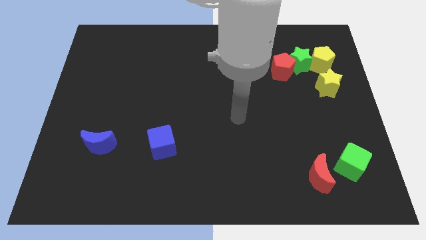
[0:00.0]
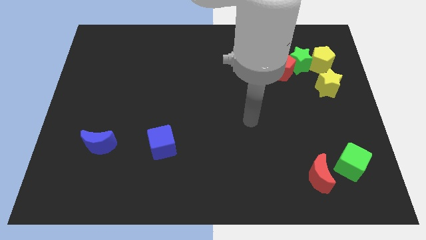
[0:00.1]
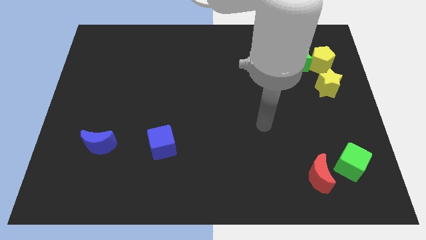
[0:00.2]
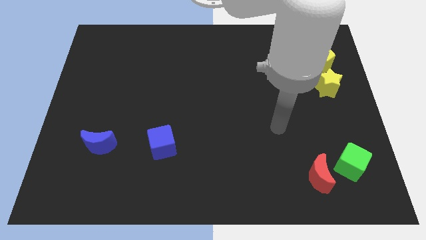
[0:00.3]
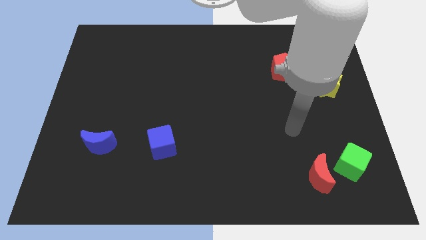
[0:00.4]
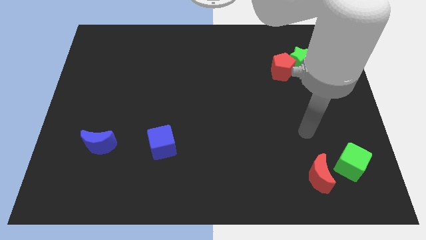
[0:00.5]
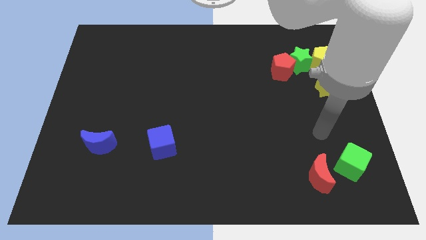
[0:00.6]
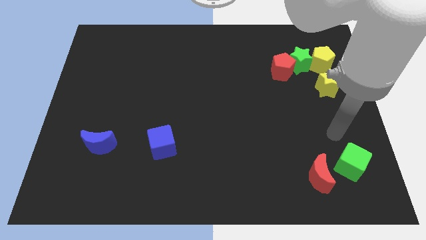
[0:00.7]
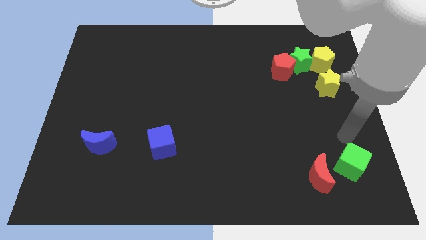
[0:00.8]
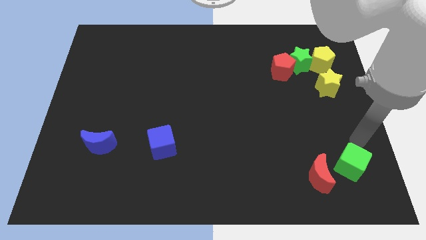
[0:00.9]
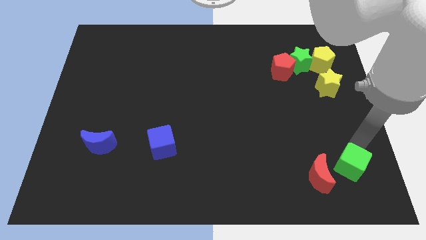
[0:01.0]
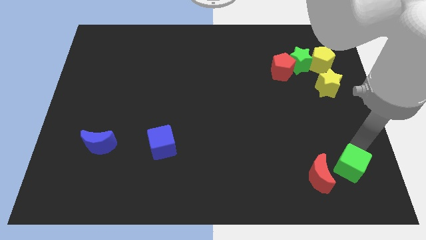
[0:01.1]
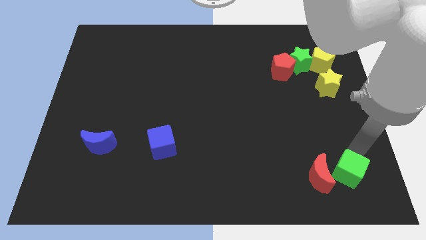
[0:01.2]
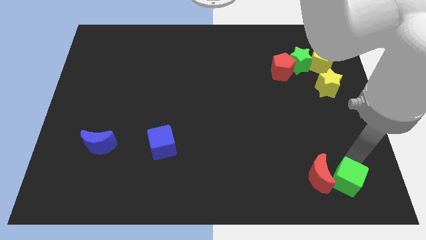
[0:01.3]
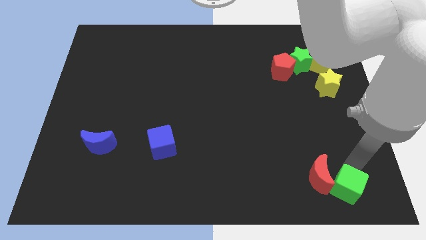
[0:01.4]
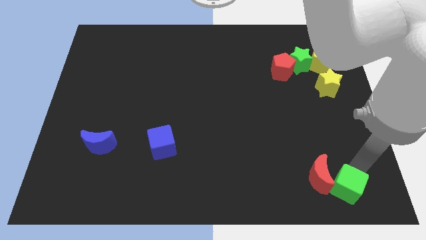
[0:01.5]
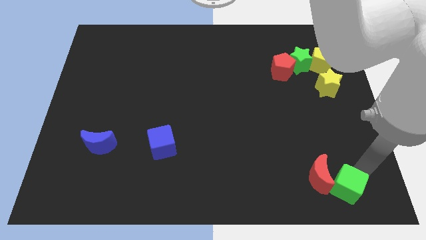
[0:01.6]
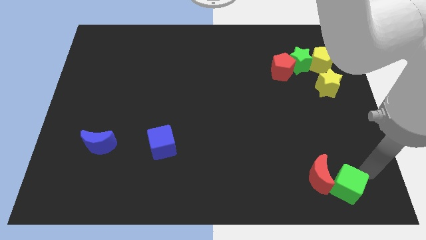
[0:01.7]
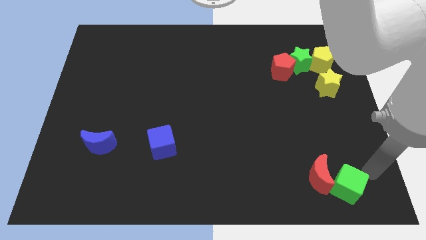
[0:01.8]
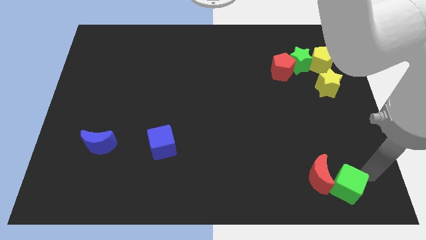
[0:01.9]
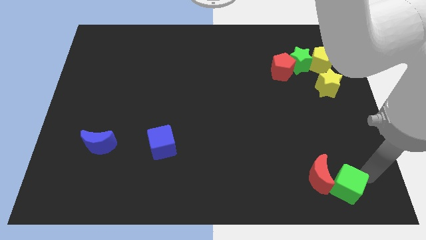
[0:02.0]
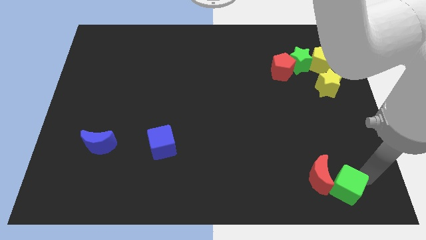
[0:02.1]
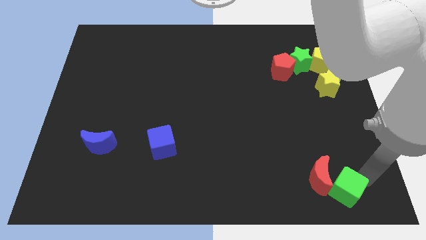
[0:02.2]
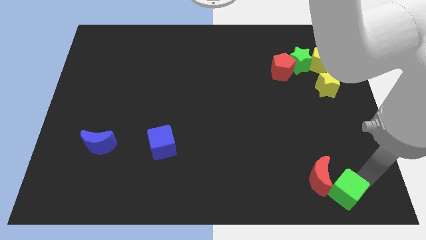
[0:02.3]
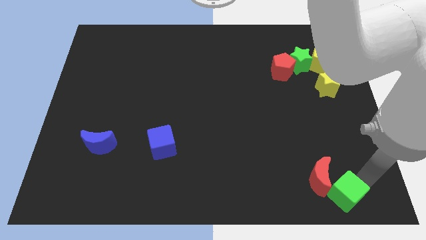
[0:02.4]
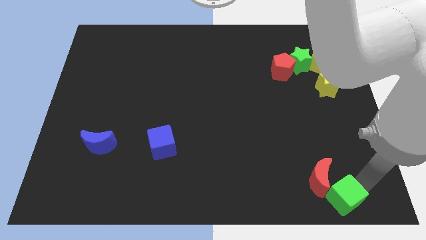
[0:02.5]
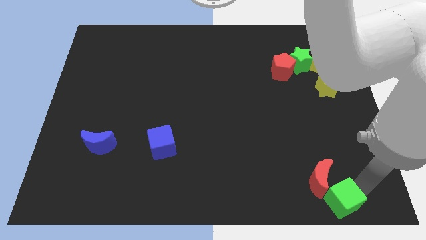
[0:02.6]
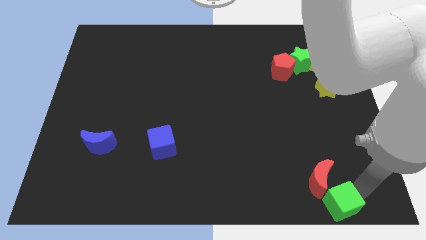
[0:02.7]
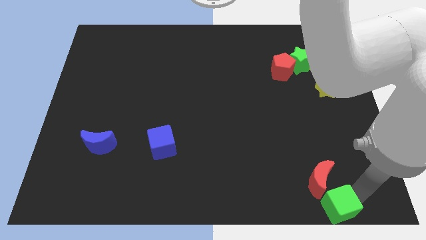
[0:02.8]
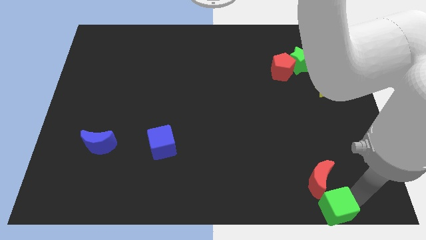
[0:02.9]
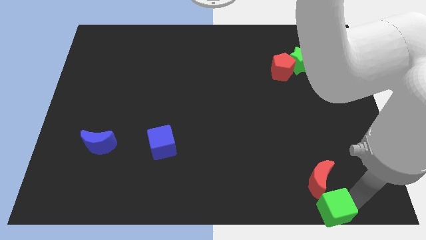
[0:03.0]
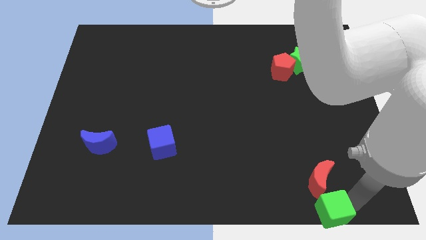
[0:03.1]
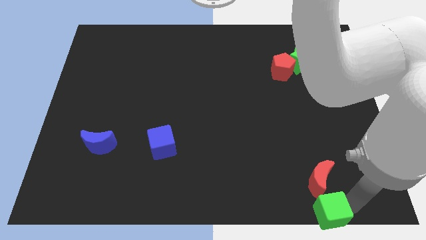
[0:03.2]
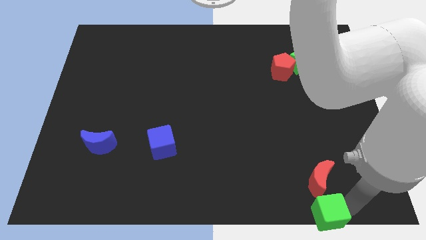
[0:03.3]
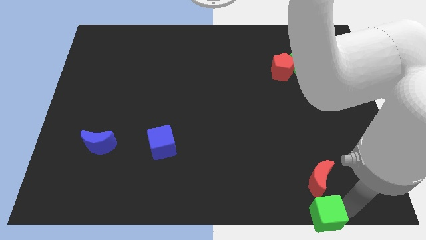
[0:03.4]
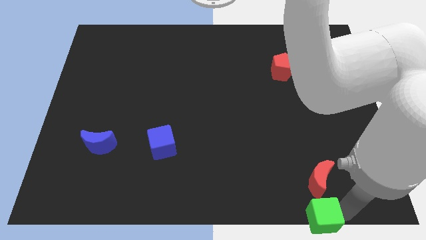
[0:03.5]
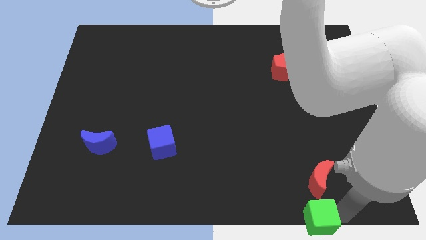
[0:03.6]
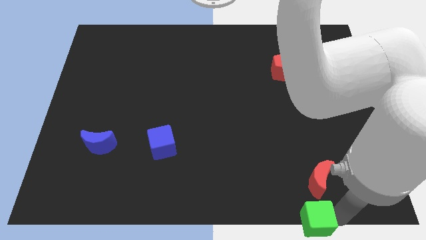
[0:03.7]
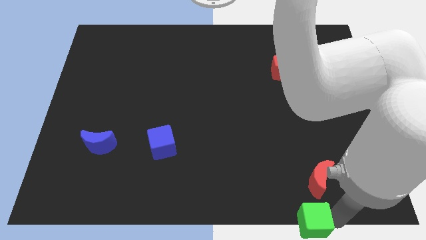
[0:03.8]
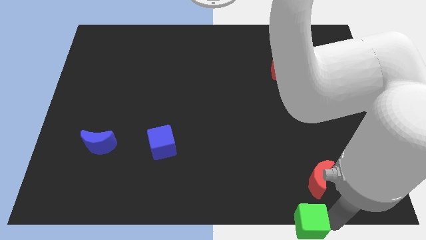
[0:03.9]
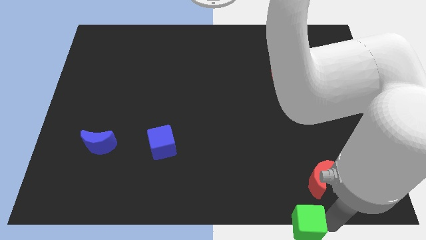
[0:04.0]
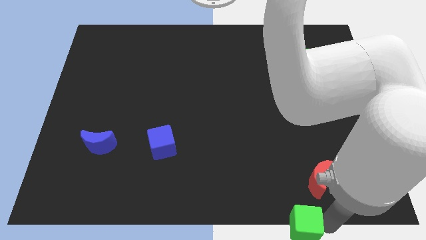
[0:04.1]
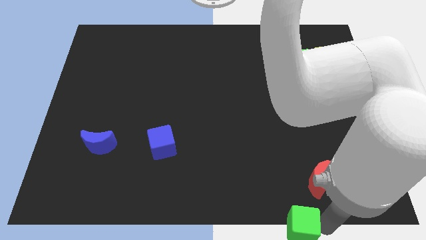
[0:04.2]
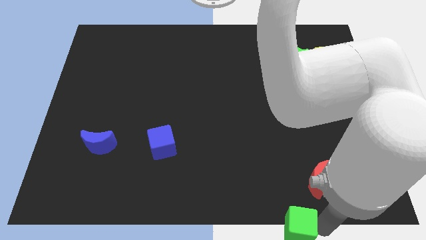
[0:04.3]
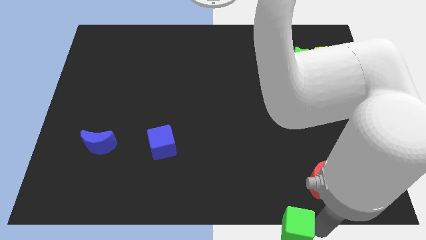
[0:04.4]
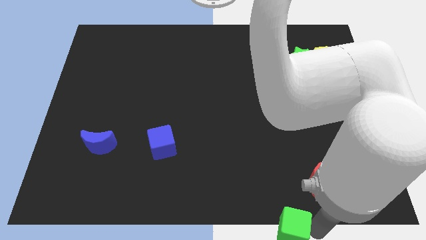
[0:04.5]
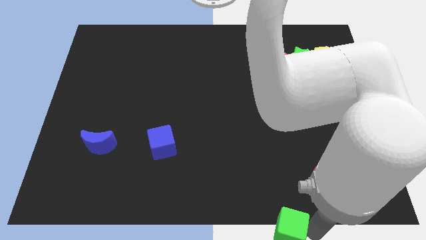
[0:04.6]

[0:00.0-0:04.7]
move the green cube to the bottom side

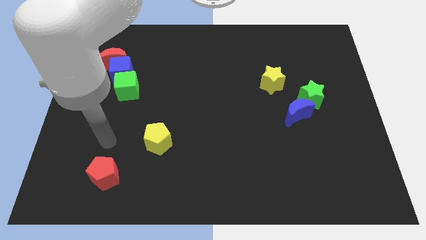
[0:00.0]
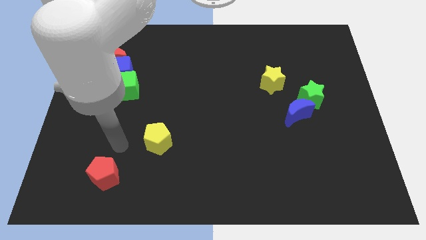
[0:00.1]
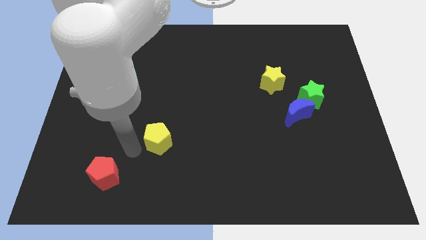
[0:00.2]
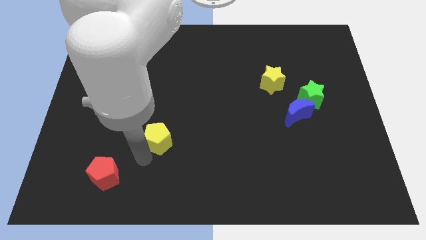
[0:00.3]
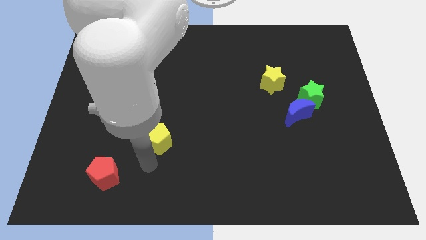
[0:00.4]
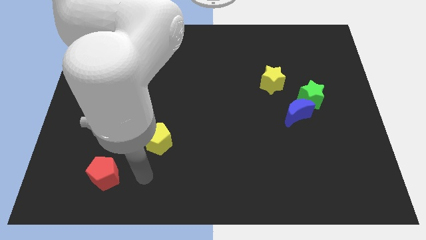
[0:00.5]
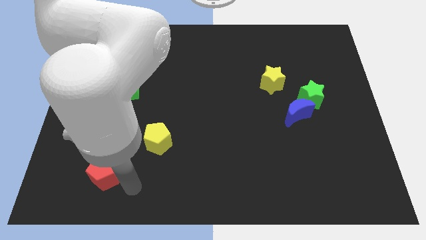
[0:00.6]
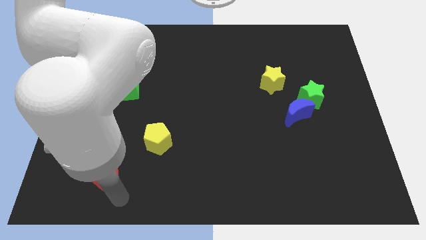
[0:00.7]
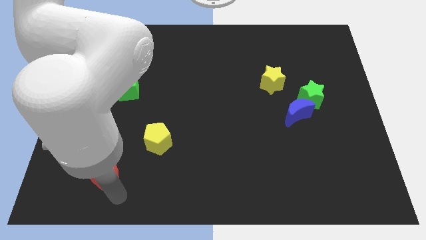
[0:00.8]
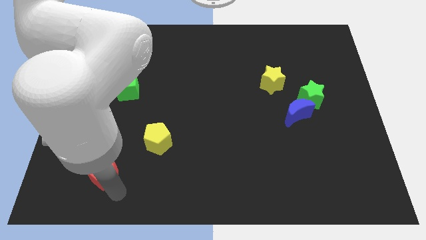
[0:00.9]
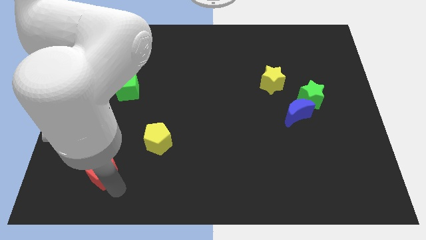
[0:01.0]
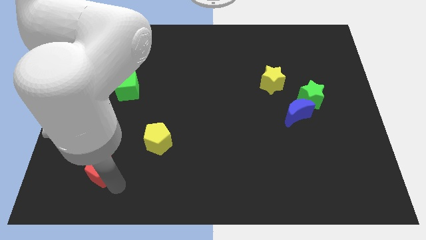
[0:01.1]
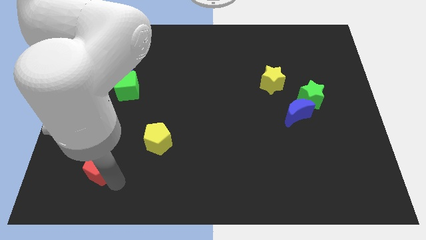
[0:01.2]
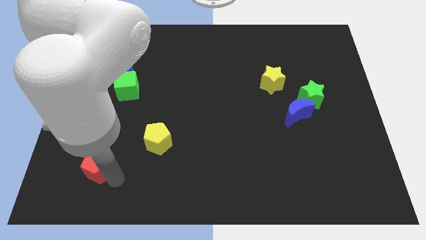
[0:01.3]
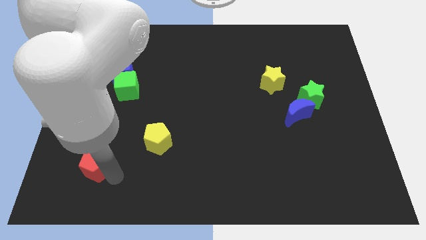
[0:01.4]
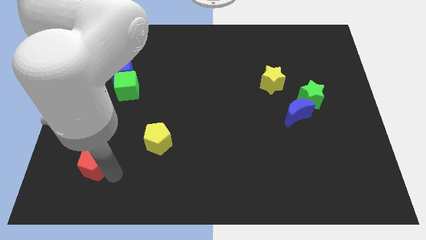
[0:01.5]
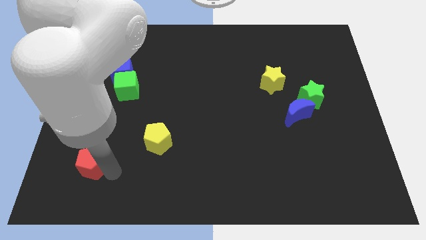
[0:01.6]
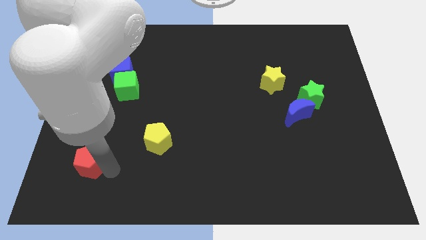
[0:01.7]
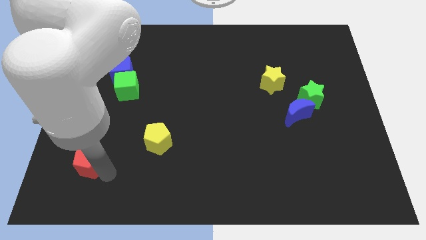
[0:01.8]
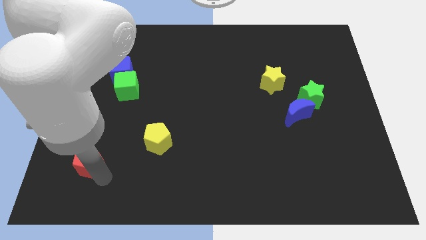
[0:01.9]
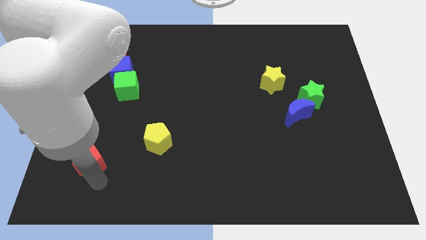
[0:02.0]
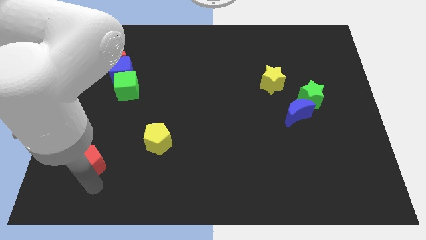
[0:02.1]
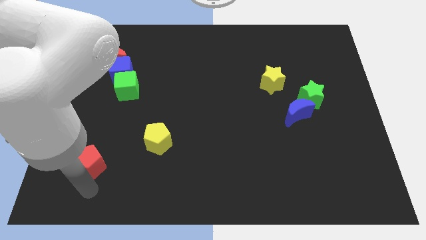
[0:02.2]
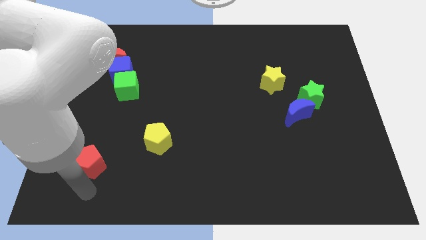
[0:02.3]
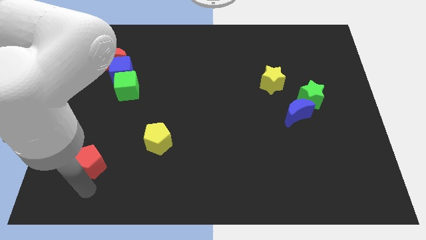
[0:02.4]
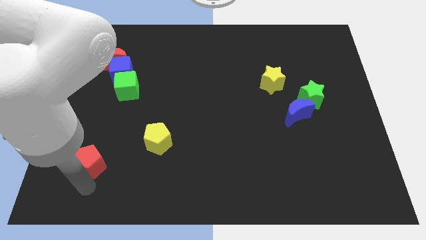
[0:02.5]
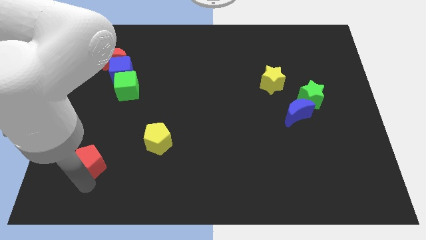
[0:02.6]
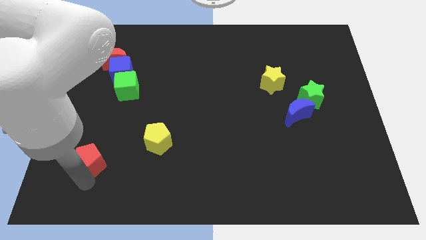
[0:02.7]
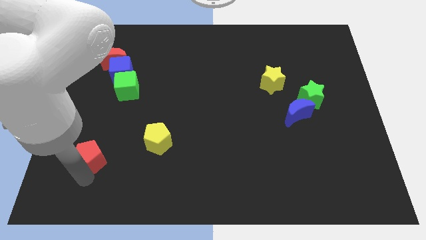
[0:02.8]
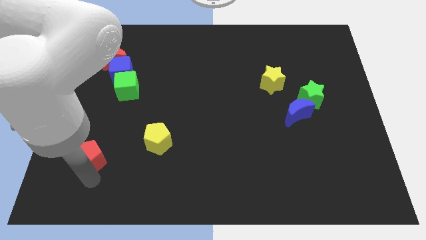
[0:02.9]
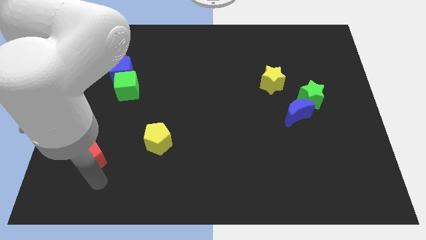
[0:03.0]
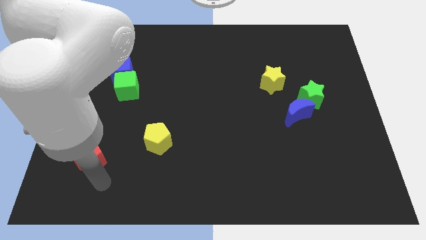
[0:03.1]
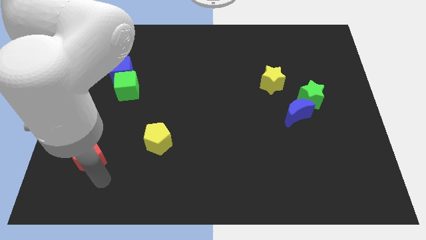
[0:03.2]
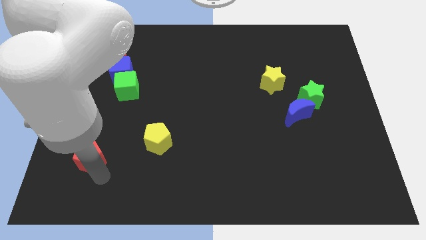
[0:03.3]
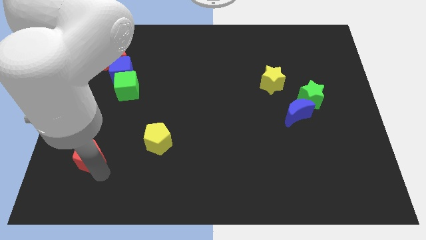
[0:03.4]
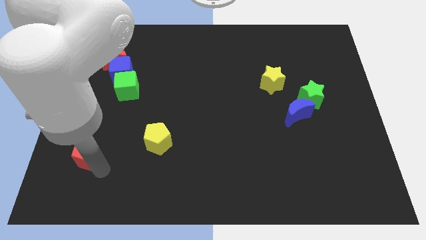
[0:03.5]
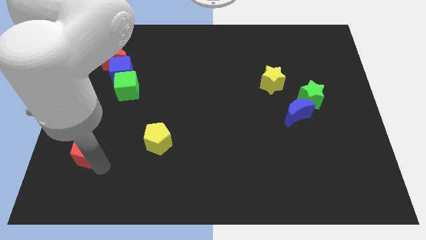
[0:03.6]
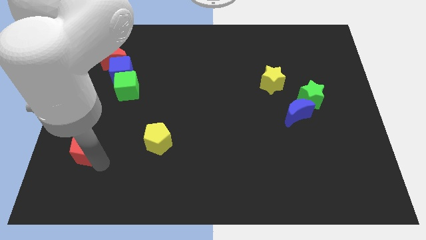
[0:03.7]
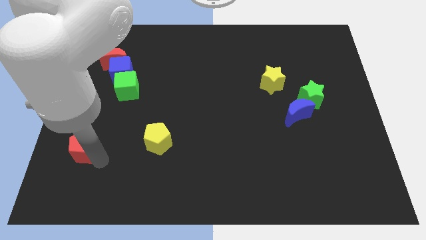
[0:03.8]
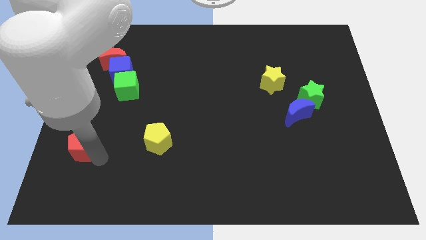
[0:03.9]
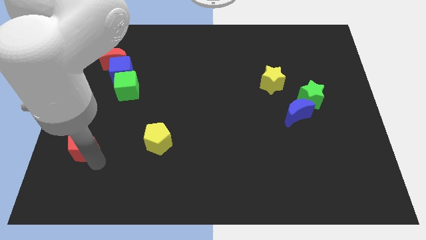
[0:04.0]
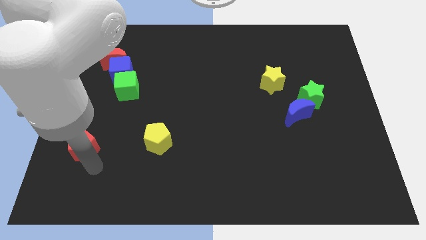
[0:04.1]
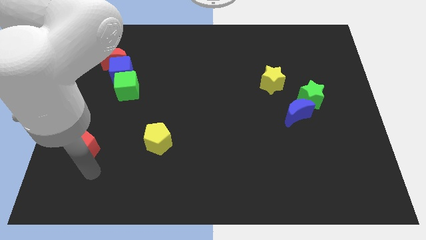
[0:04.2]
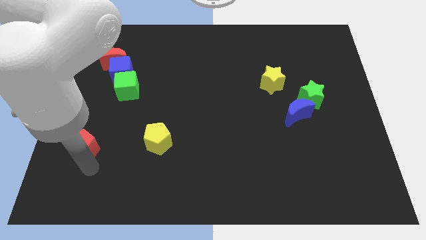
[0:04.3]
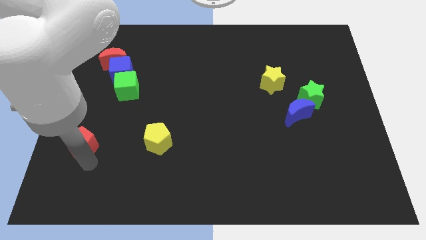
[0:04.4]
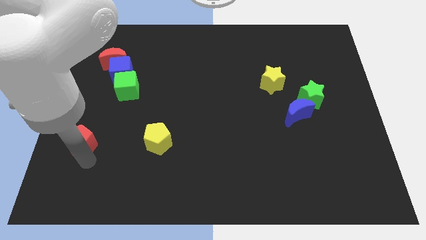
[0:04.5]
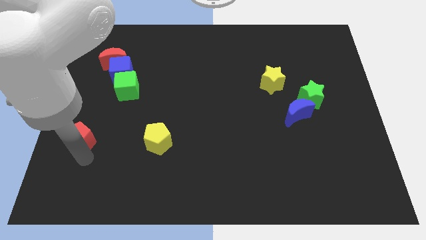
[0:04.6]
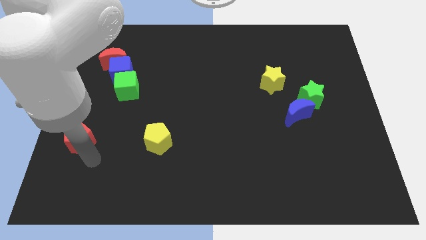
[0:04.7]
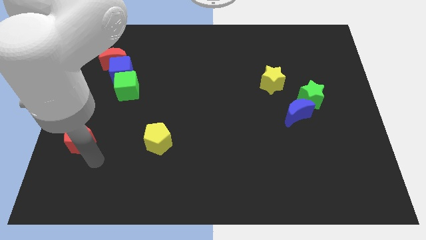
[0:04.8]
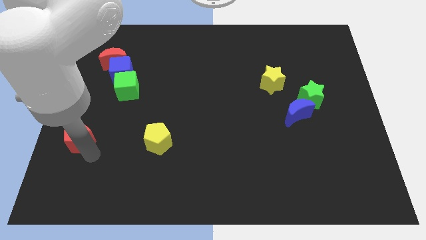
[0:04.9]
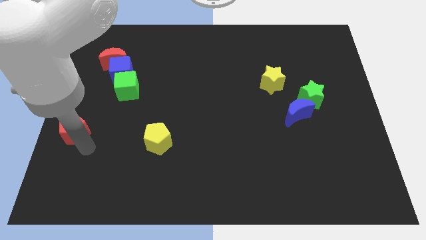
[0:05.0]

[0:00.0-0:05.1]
move the red pentagon to the left side
